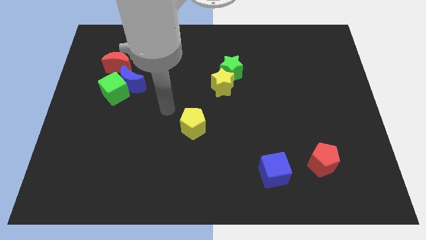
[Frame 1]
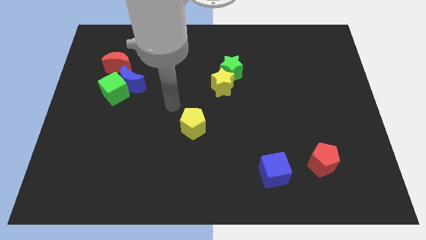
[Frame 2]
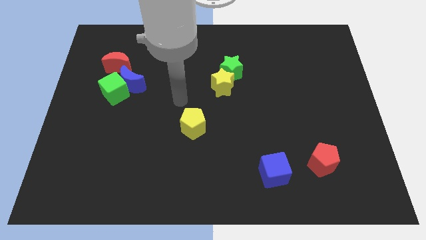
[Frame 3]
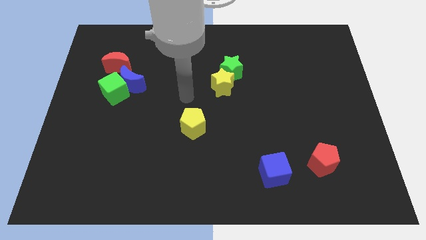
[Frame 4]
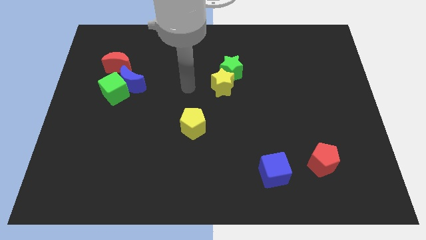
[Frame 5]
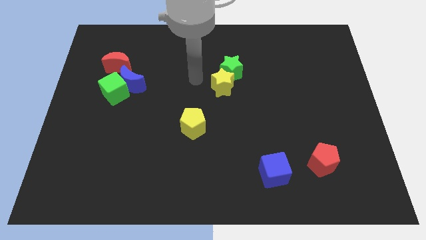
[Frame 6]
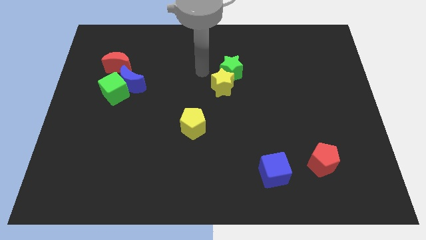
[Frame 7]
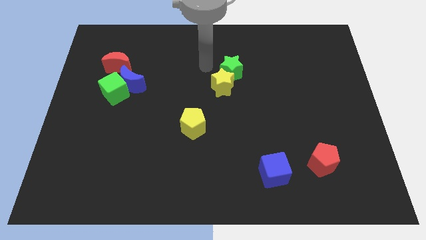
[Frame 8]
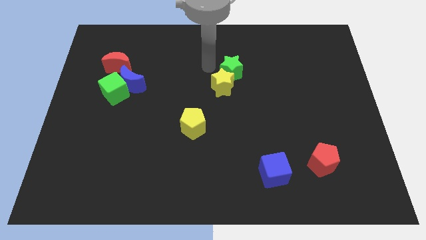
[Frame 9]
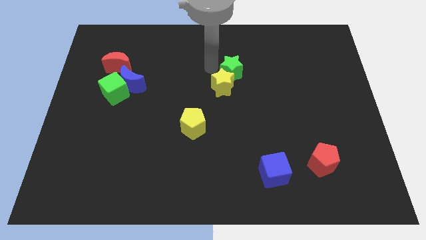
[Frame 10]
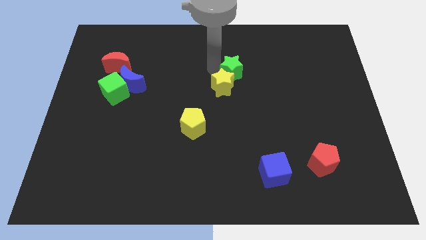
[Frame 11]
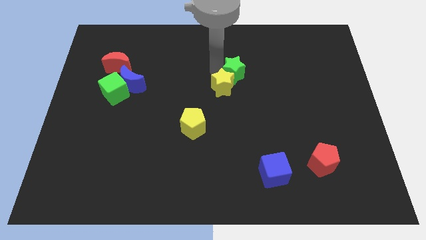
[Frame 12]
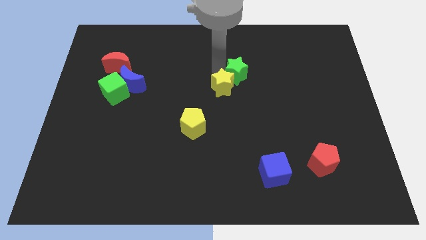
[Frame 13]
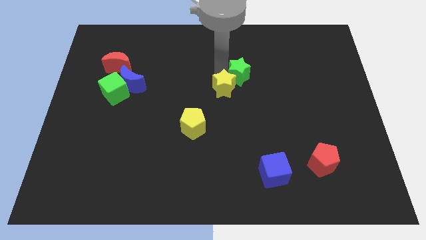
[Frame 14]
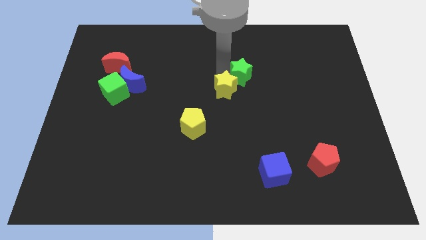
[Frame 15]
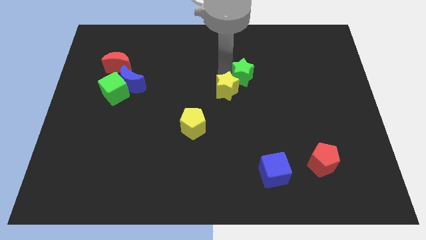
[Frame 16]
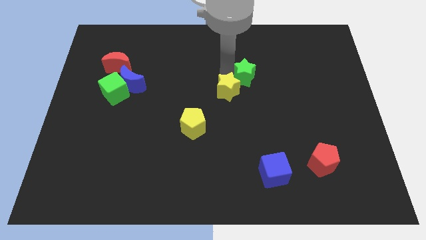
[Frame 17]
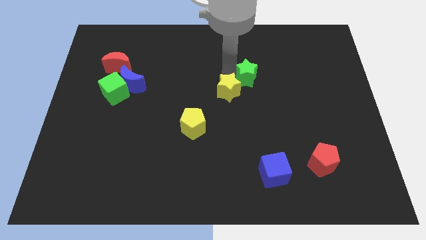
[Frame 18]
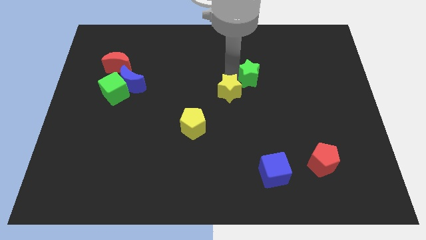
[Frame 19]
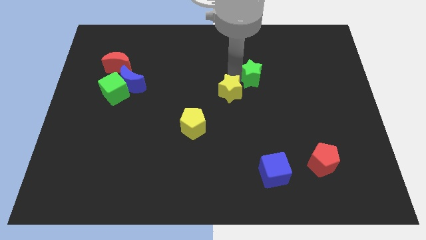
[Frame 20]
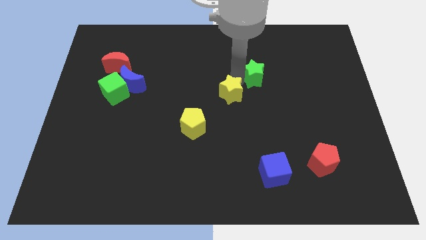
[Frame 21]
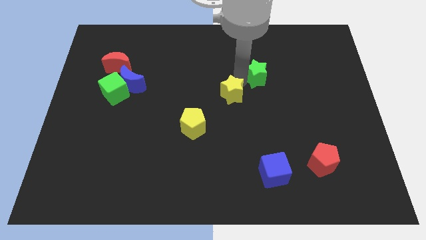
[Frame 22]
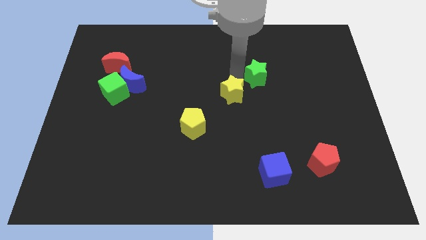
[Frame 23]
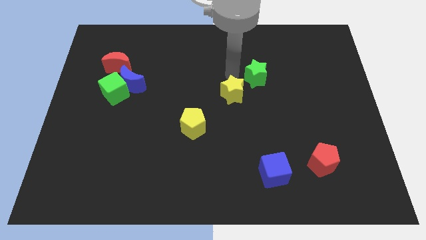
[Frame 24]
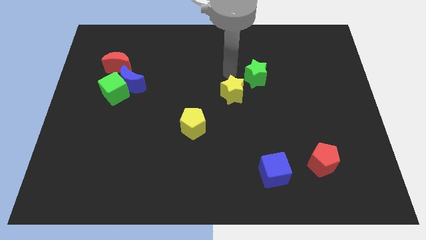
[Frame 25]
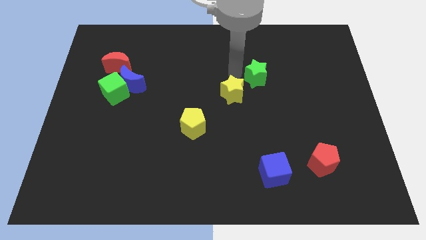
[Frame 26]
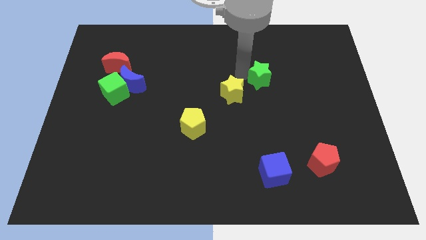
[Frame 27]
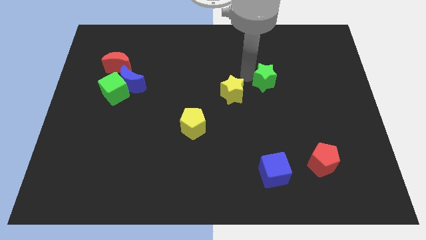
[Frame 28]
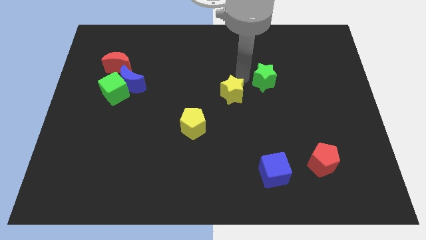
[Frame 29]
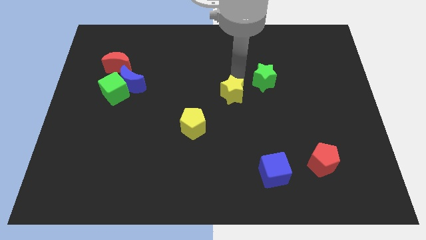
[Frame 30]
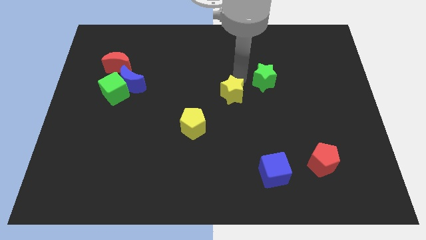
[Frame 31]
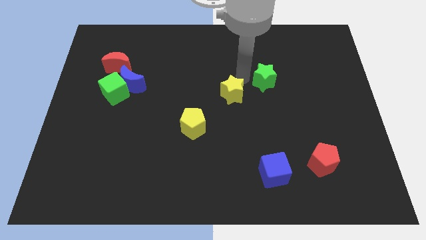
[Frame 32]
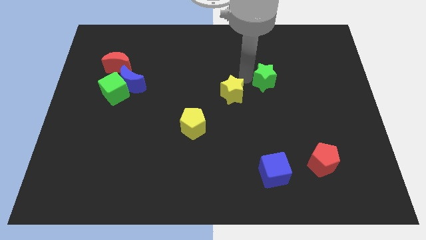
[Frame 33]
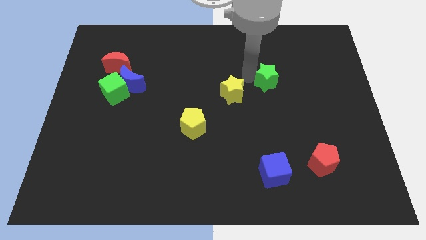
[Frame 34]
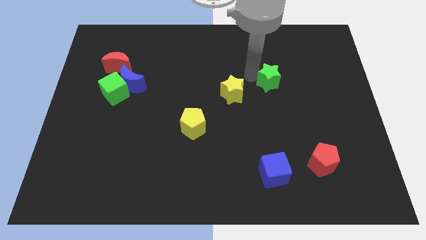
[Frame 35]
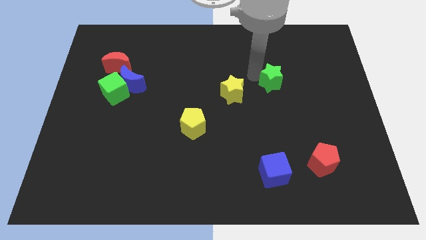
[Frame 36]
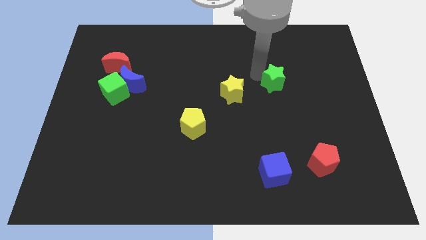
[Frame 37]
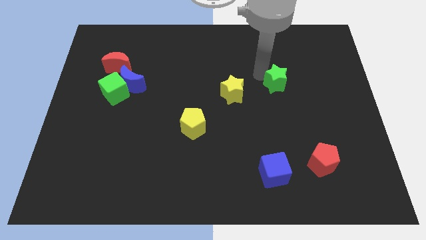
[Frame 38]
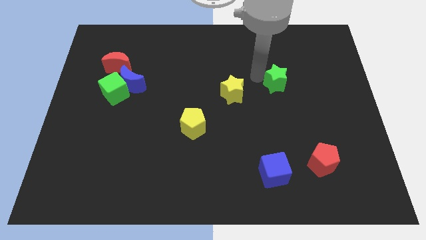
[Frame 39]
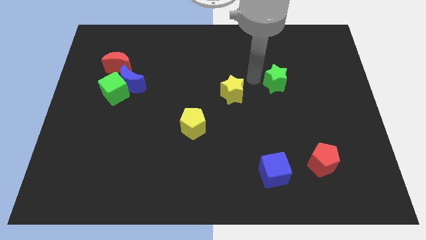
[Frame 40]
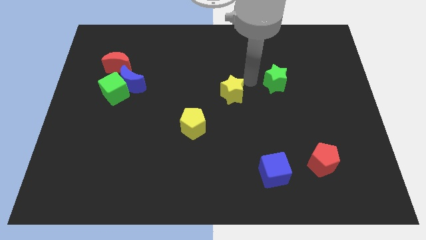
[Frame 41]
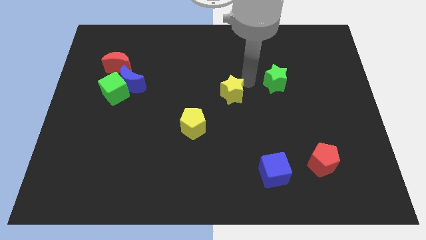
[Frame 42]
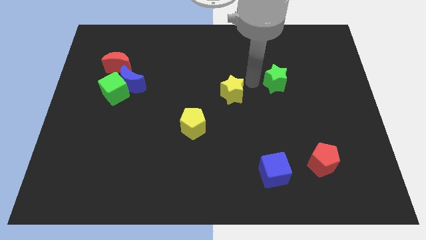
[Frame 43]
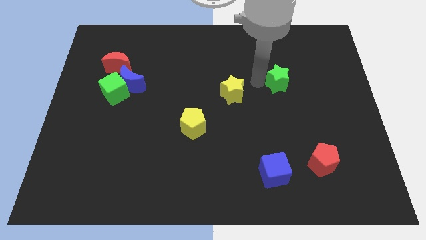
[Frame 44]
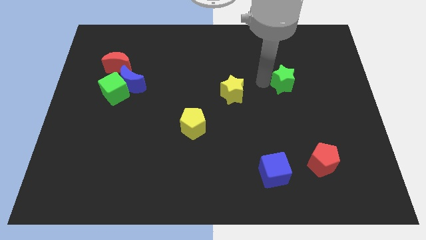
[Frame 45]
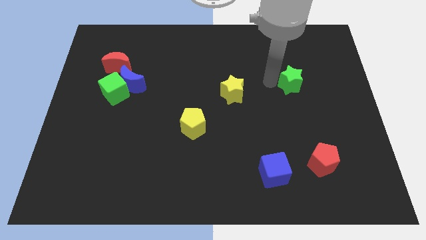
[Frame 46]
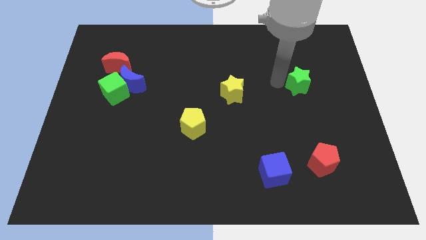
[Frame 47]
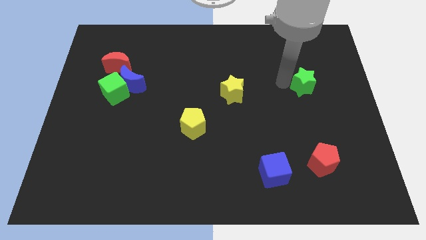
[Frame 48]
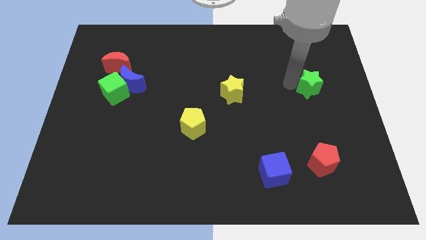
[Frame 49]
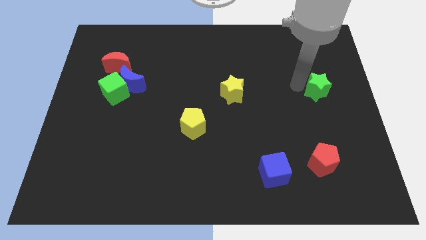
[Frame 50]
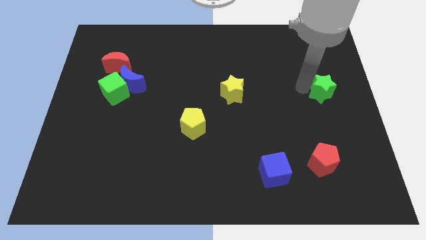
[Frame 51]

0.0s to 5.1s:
move the green star to the right side of the board
